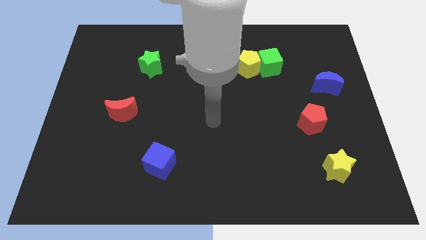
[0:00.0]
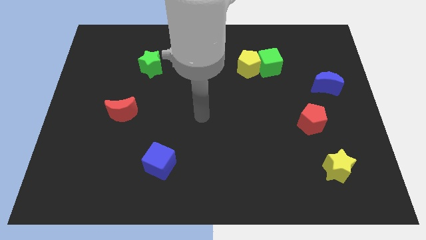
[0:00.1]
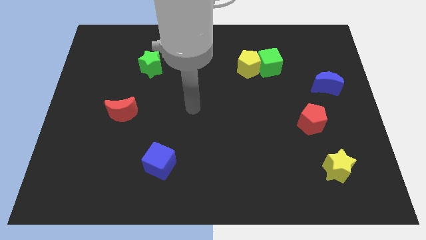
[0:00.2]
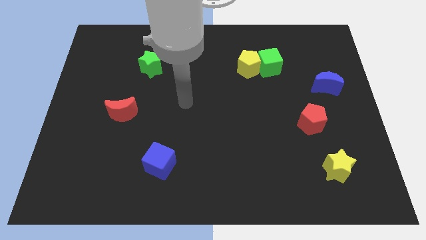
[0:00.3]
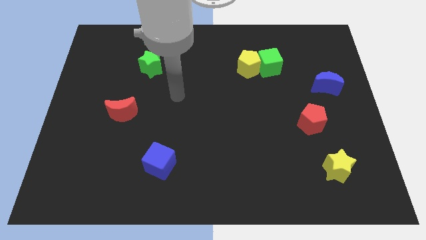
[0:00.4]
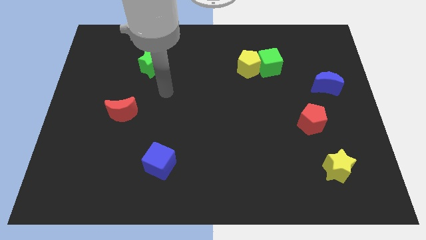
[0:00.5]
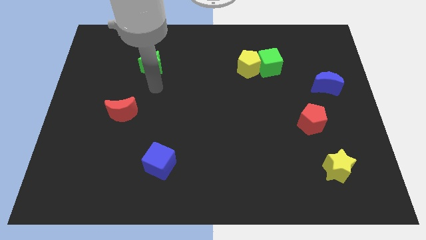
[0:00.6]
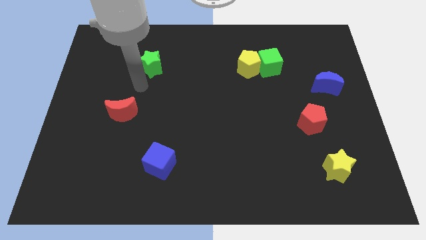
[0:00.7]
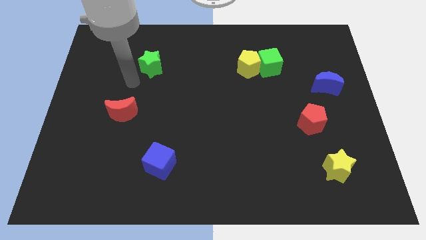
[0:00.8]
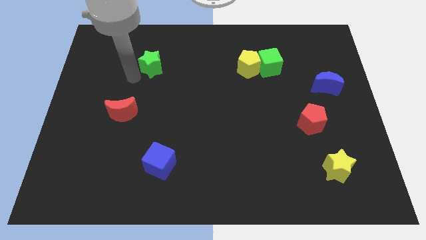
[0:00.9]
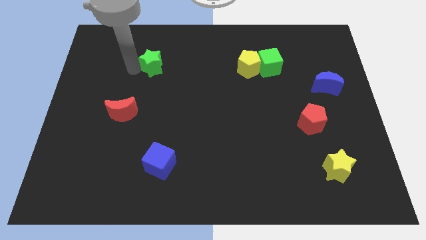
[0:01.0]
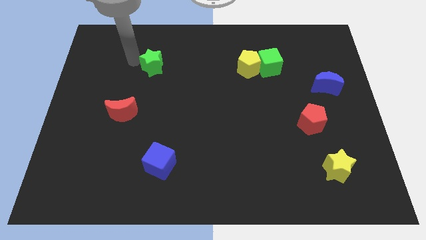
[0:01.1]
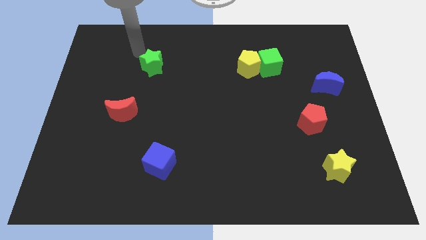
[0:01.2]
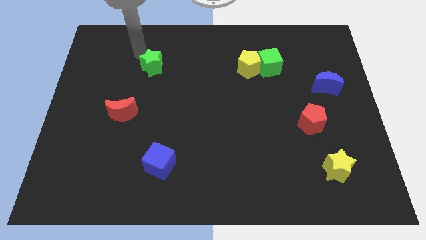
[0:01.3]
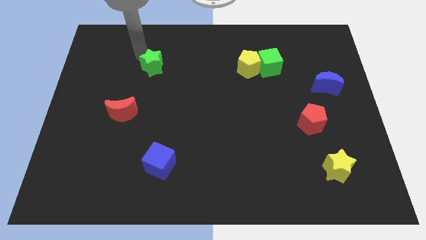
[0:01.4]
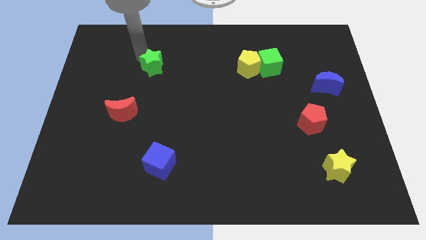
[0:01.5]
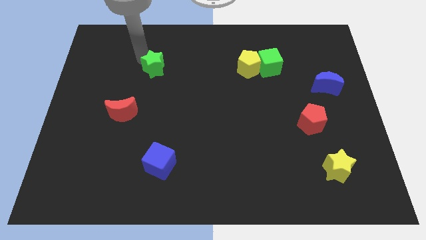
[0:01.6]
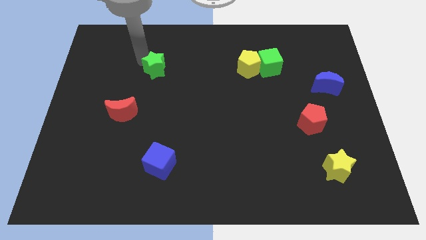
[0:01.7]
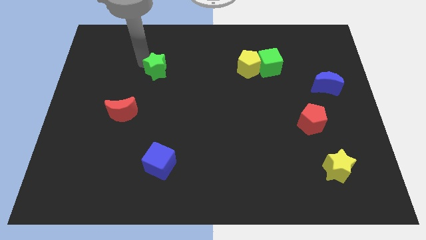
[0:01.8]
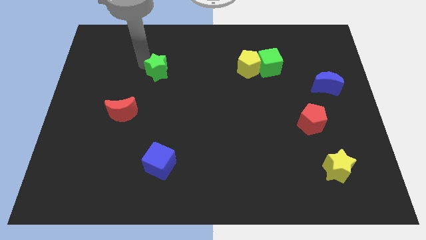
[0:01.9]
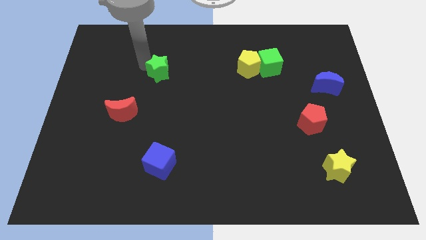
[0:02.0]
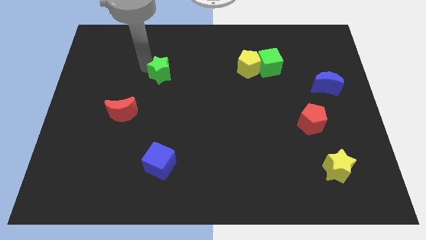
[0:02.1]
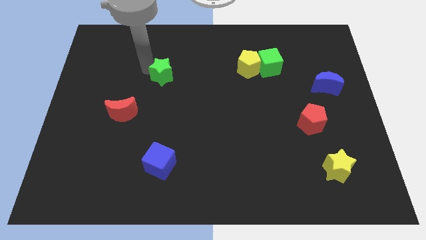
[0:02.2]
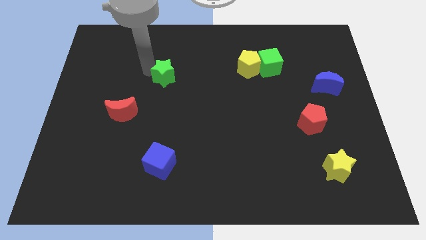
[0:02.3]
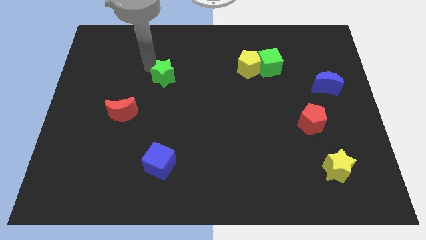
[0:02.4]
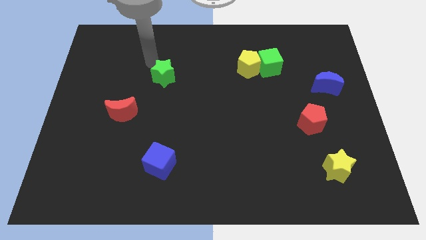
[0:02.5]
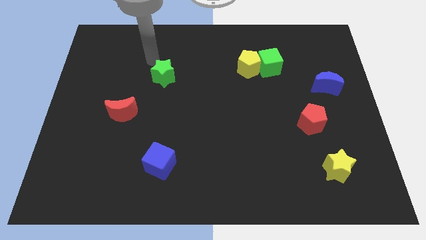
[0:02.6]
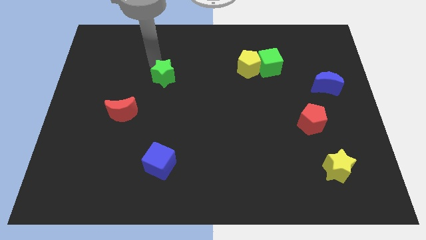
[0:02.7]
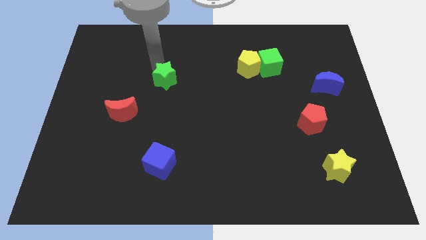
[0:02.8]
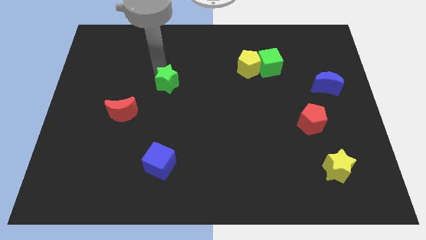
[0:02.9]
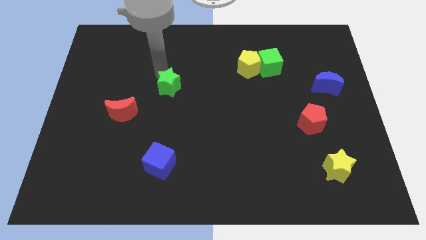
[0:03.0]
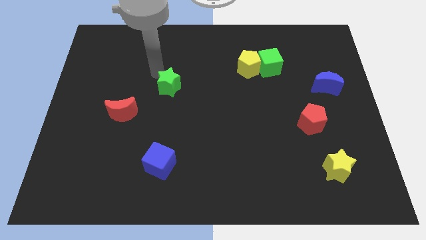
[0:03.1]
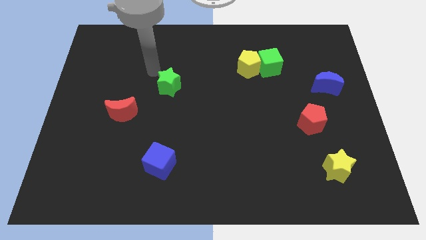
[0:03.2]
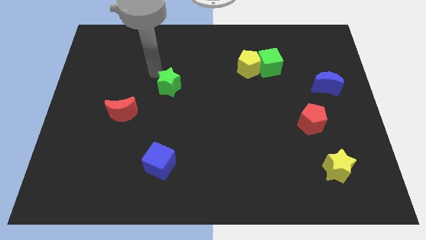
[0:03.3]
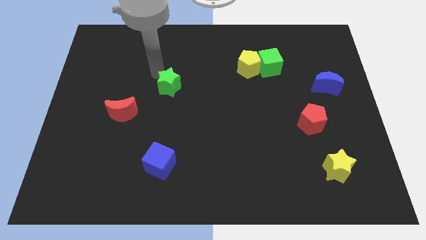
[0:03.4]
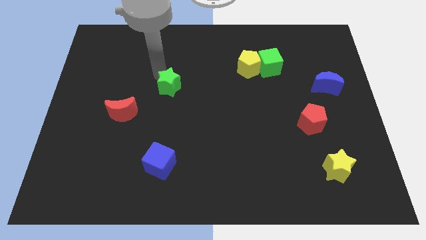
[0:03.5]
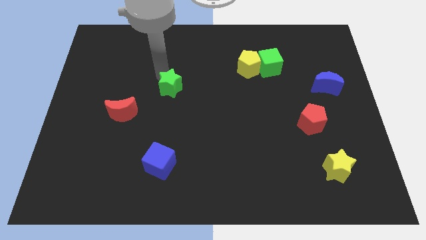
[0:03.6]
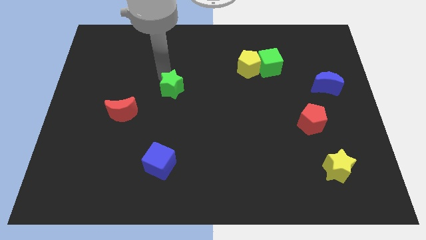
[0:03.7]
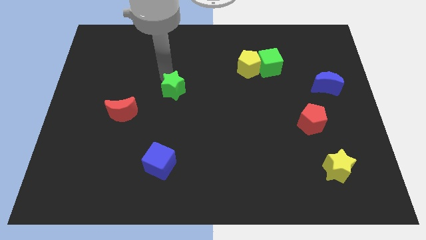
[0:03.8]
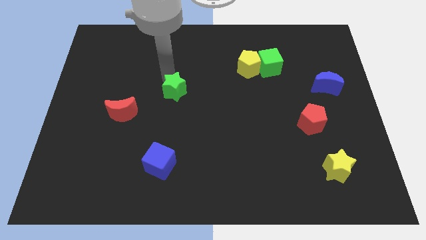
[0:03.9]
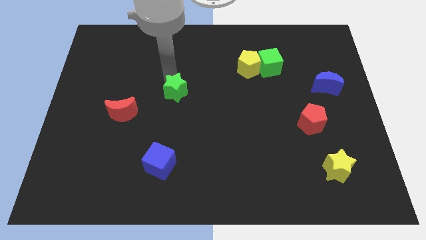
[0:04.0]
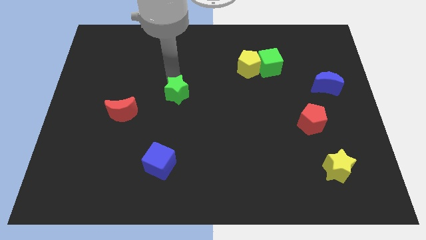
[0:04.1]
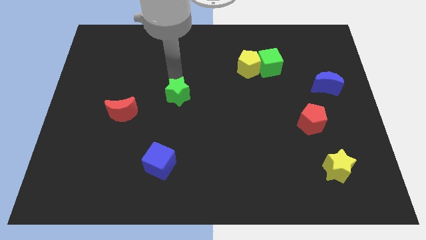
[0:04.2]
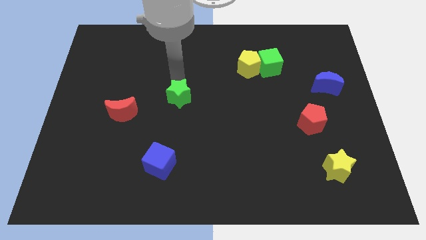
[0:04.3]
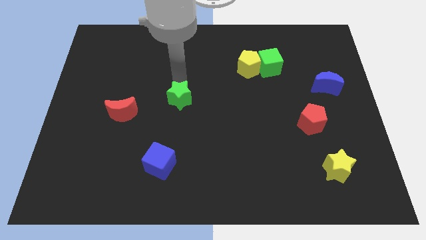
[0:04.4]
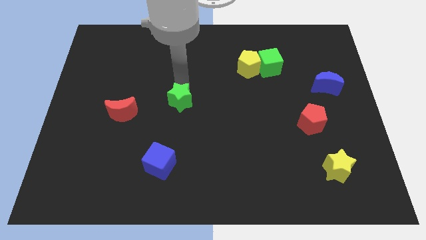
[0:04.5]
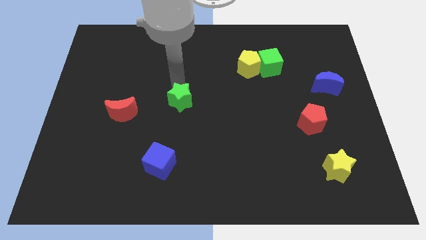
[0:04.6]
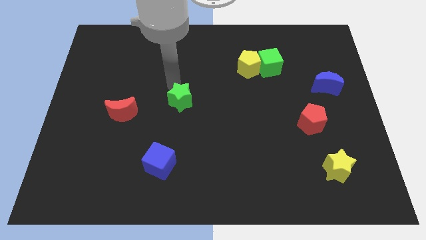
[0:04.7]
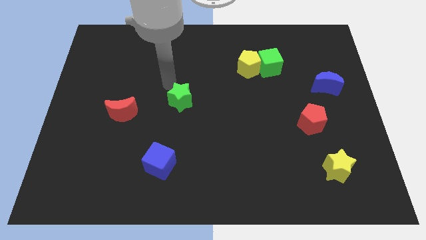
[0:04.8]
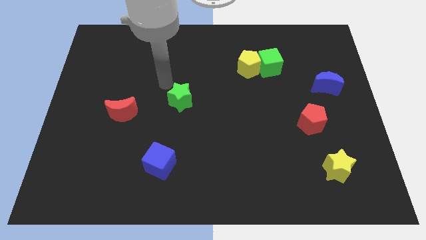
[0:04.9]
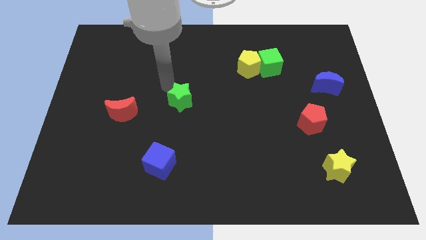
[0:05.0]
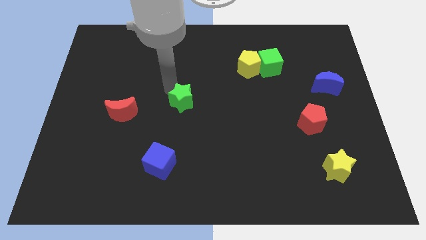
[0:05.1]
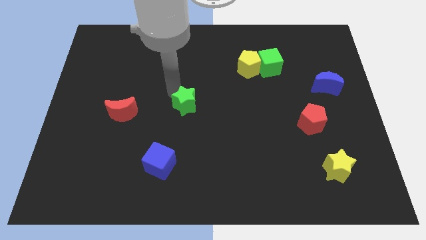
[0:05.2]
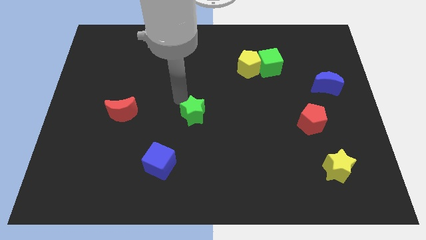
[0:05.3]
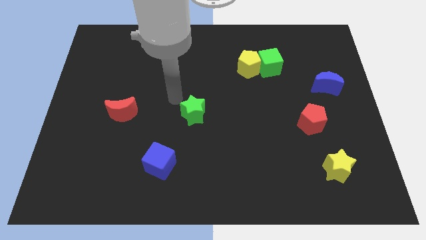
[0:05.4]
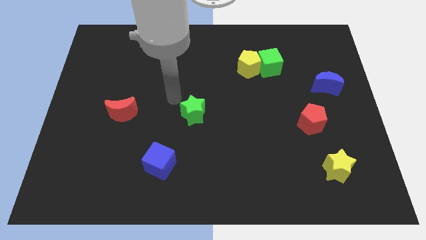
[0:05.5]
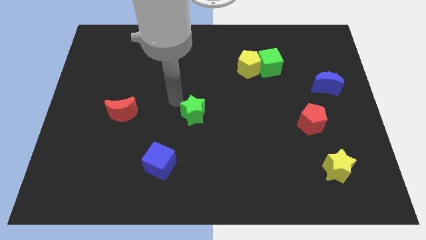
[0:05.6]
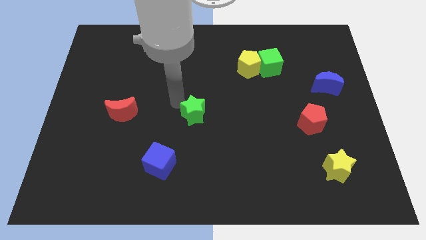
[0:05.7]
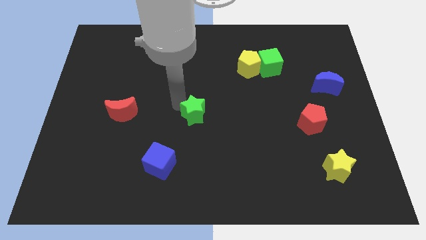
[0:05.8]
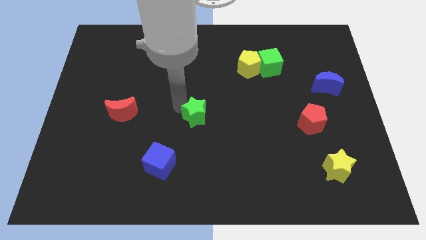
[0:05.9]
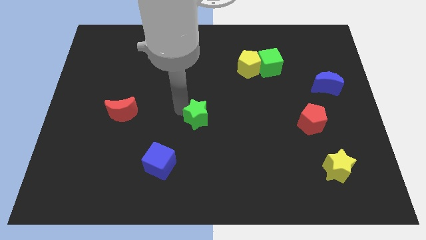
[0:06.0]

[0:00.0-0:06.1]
push the green star downwards and right

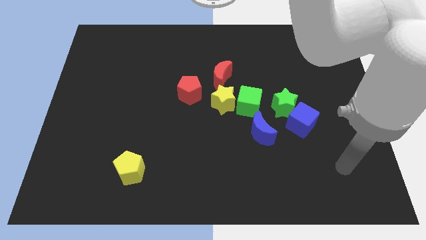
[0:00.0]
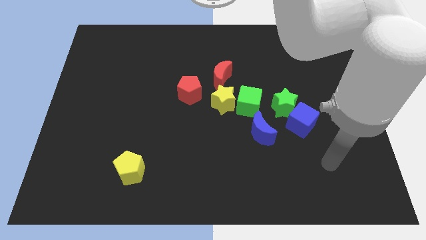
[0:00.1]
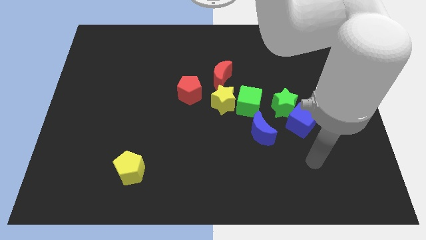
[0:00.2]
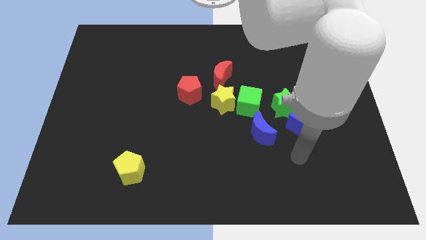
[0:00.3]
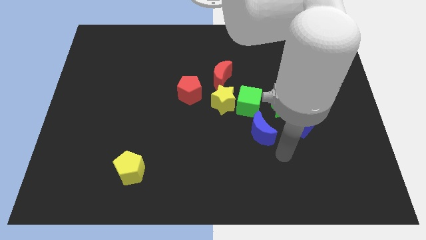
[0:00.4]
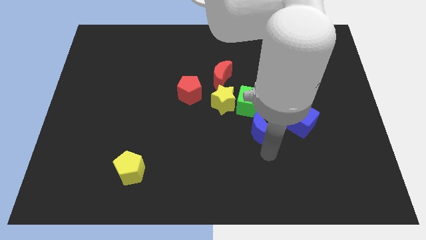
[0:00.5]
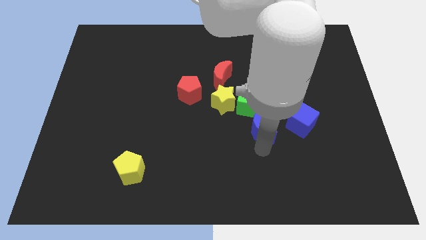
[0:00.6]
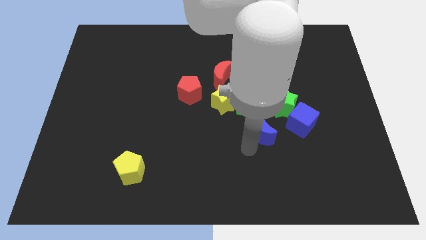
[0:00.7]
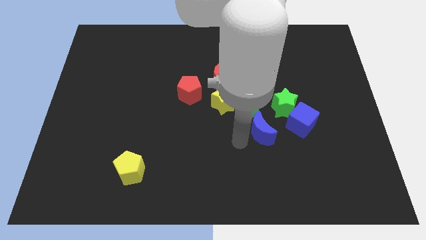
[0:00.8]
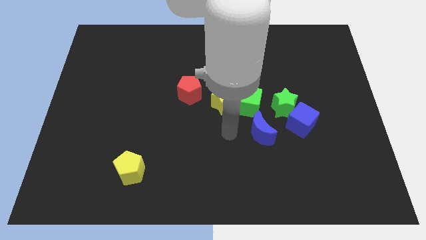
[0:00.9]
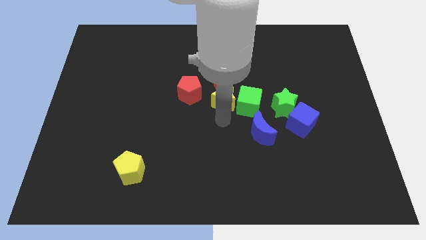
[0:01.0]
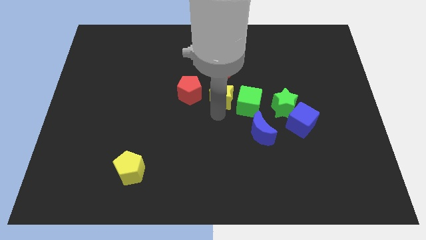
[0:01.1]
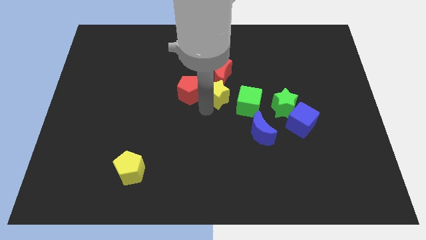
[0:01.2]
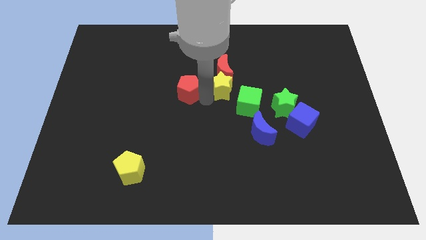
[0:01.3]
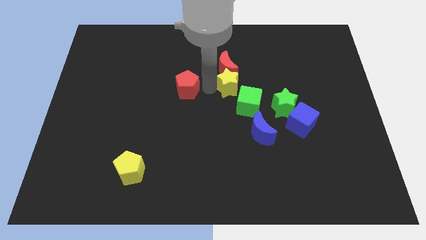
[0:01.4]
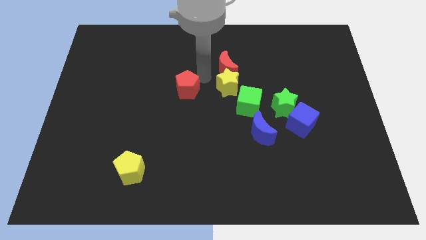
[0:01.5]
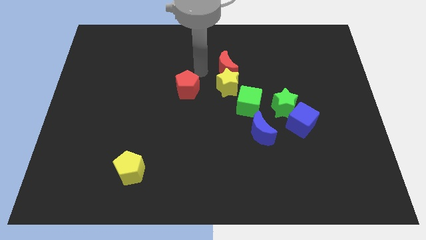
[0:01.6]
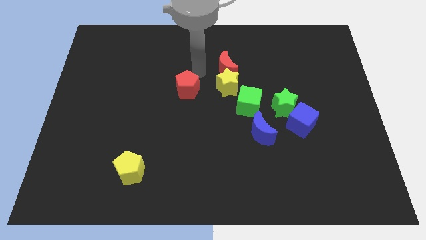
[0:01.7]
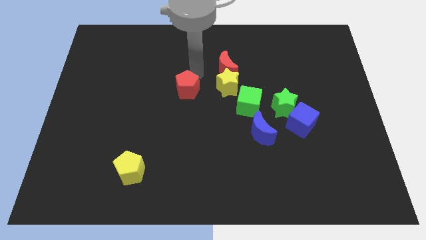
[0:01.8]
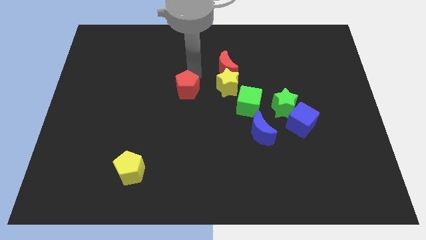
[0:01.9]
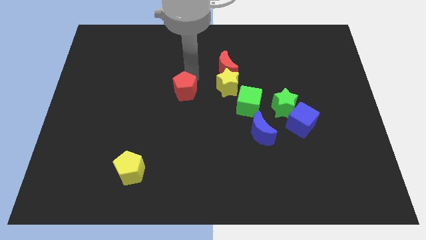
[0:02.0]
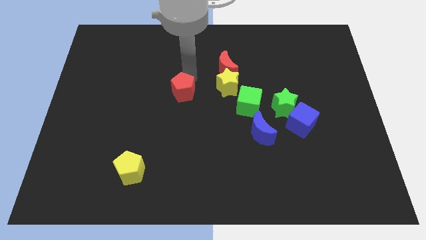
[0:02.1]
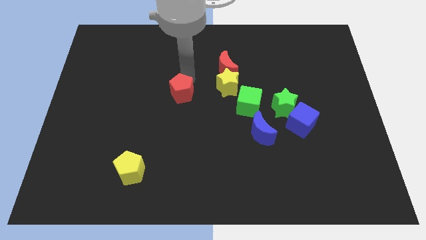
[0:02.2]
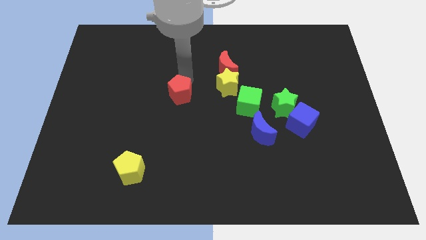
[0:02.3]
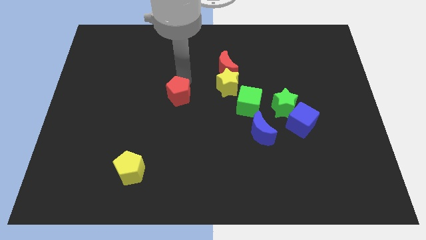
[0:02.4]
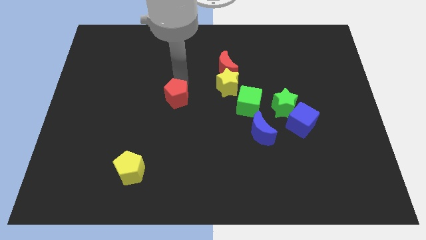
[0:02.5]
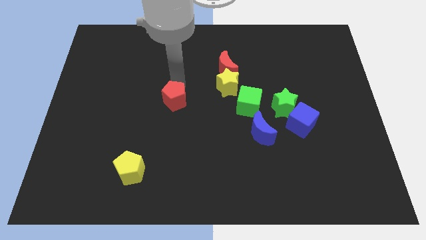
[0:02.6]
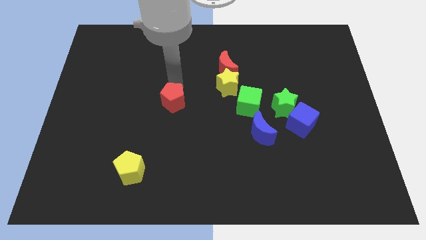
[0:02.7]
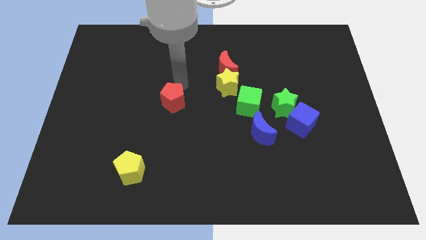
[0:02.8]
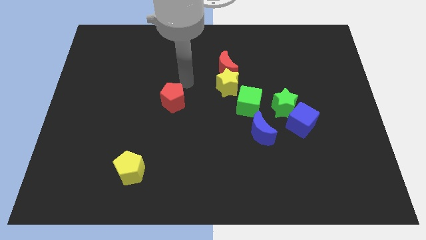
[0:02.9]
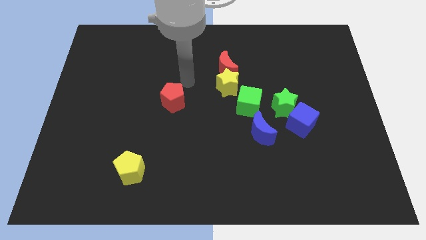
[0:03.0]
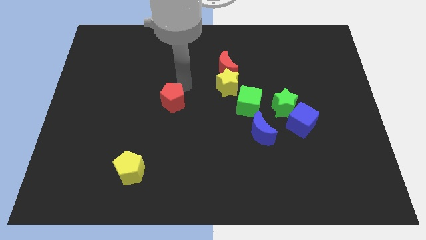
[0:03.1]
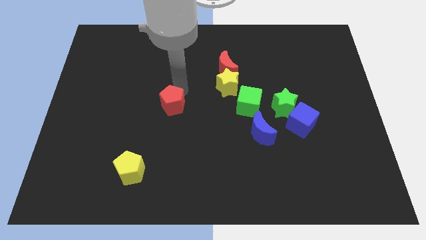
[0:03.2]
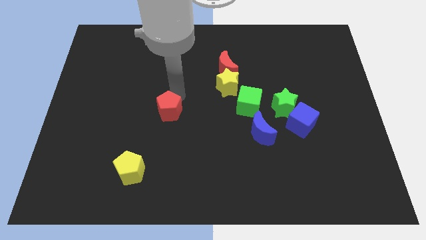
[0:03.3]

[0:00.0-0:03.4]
slightly slide the red pentagon downwards and left diagonally
